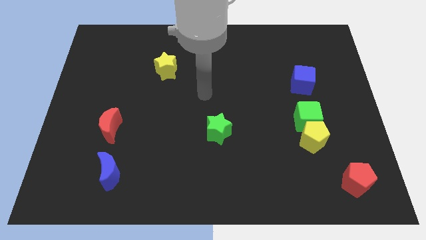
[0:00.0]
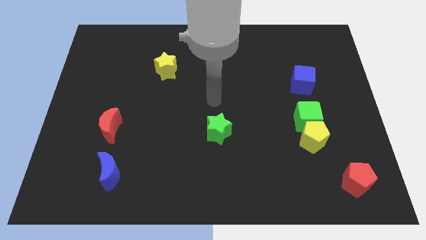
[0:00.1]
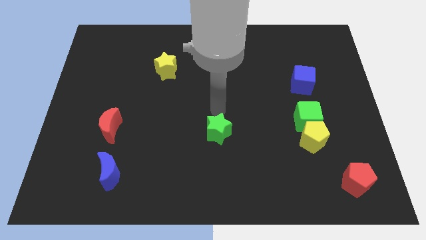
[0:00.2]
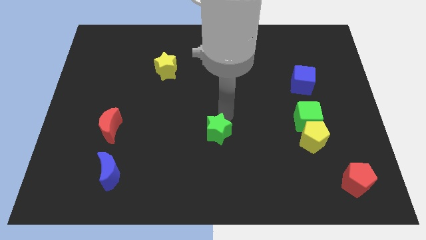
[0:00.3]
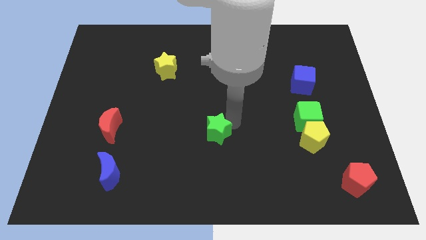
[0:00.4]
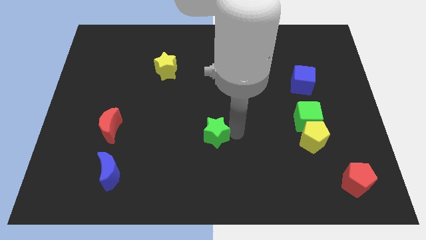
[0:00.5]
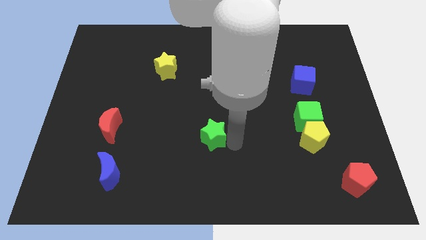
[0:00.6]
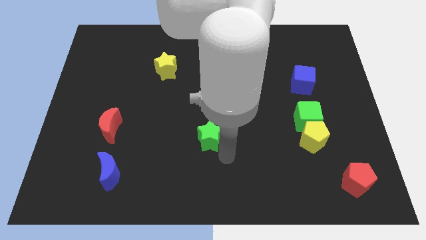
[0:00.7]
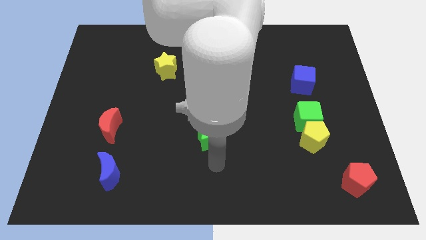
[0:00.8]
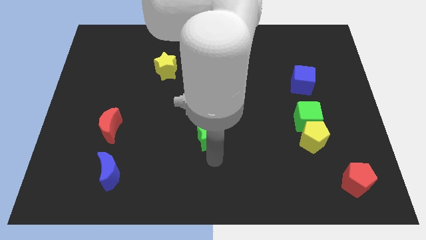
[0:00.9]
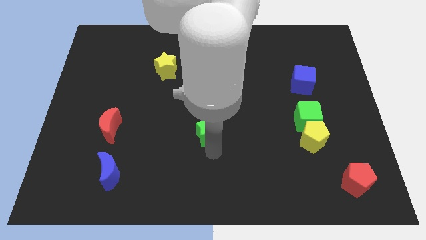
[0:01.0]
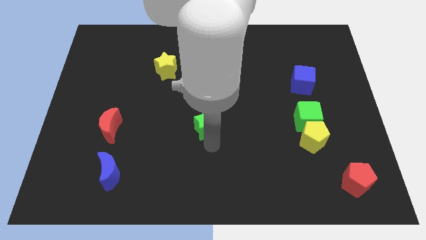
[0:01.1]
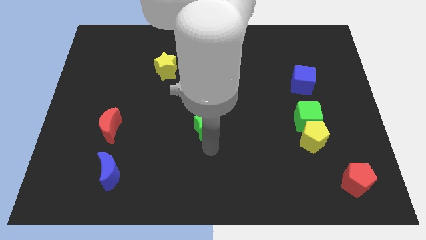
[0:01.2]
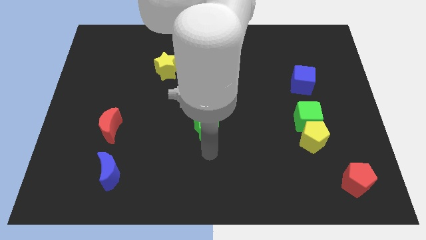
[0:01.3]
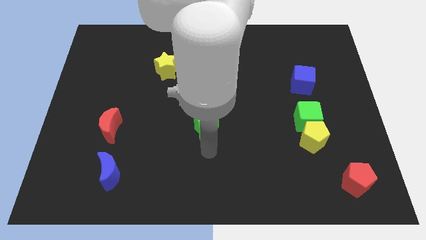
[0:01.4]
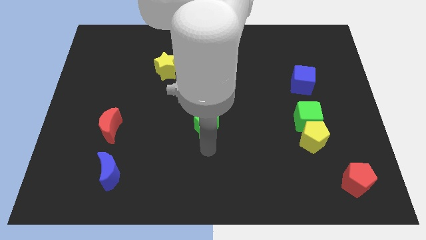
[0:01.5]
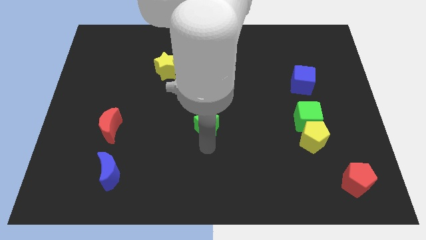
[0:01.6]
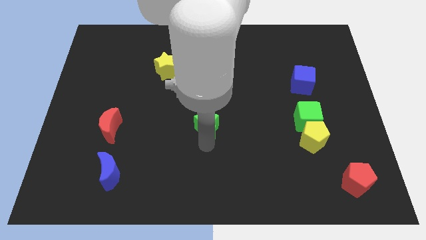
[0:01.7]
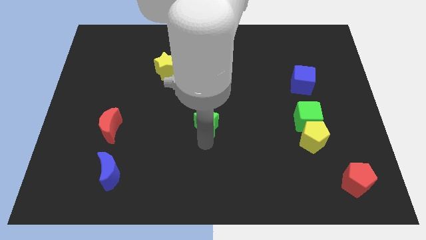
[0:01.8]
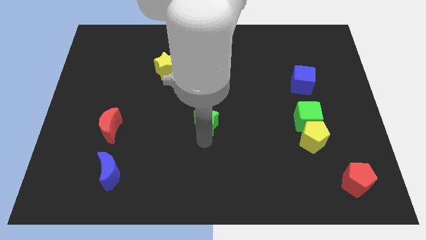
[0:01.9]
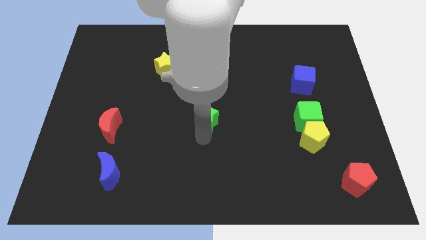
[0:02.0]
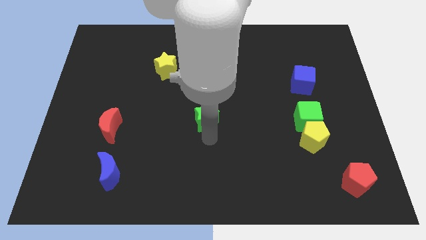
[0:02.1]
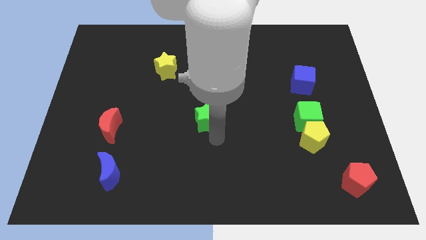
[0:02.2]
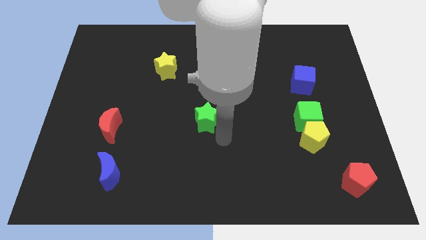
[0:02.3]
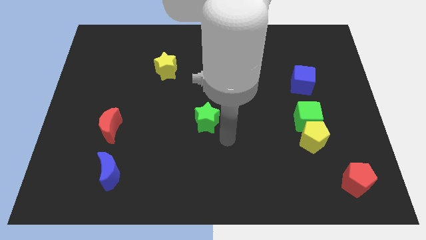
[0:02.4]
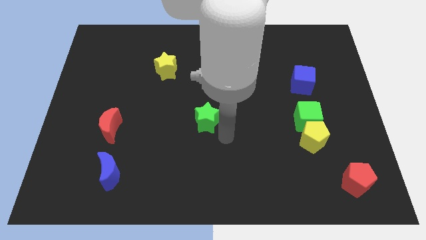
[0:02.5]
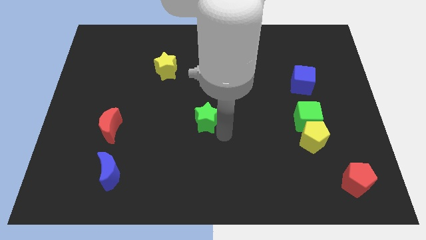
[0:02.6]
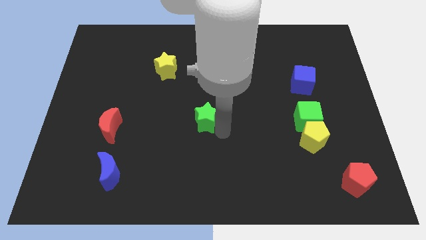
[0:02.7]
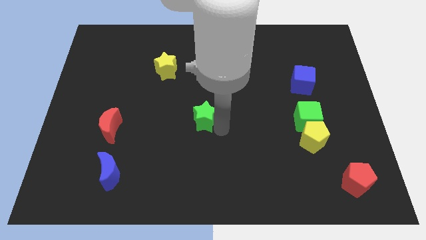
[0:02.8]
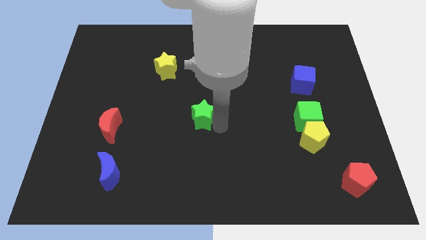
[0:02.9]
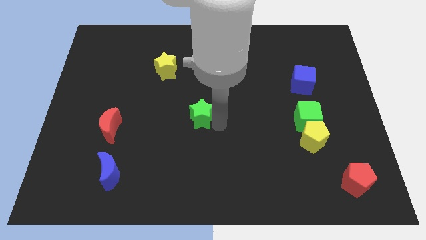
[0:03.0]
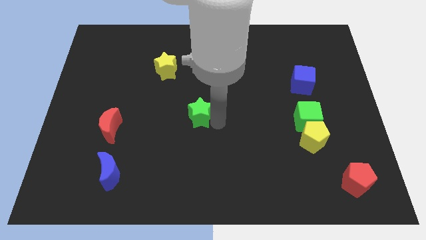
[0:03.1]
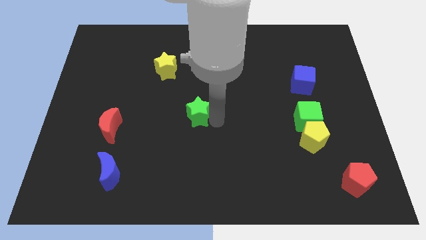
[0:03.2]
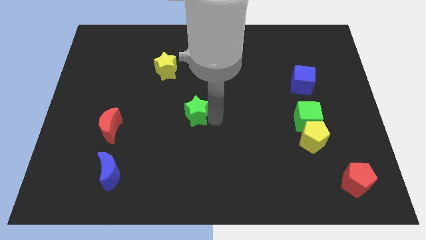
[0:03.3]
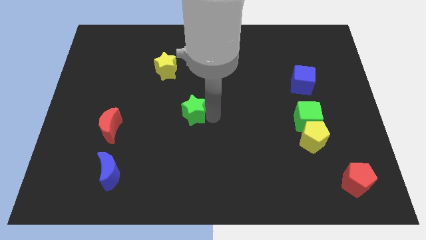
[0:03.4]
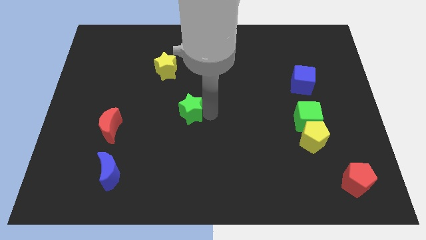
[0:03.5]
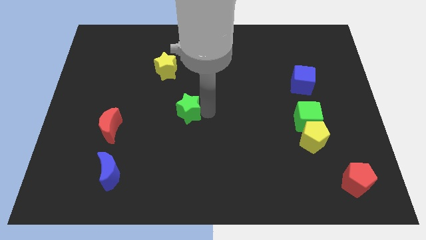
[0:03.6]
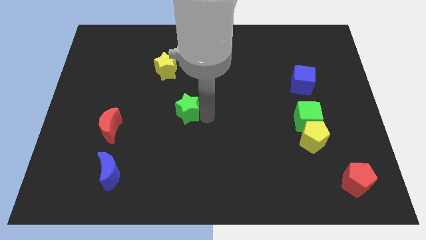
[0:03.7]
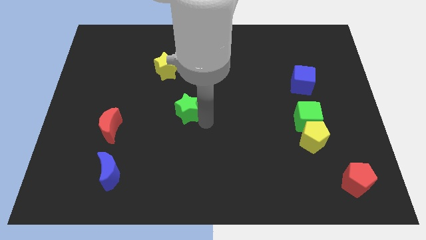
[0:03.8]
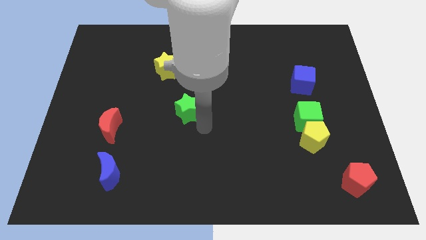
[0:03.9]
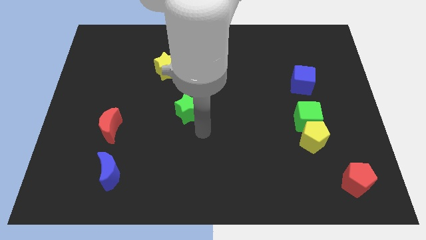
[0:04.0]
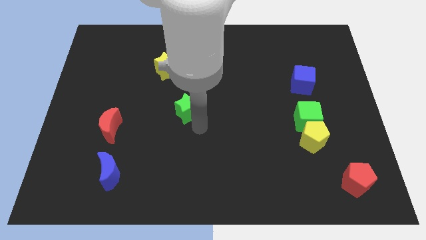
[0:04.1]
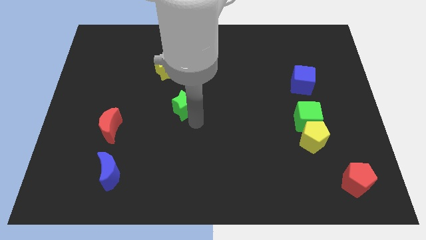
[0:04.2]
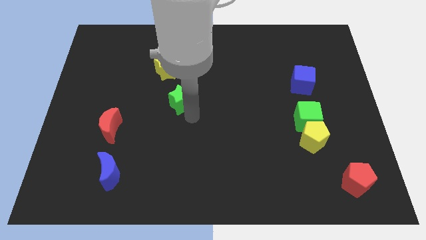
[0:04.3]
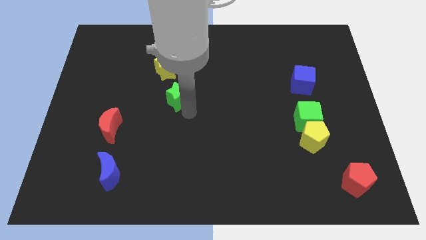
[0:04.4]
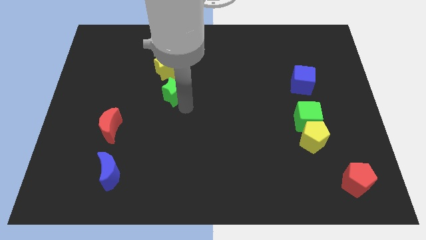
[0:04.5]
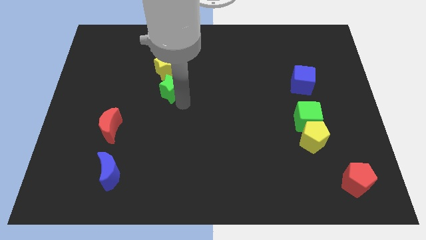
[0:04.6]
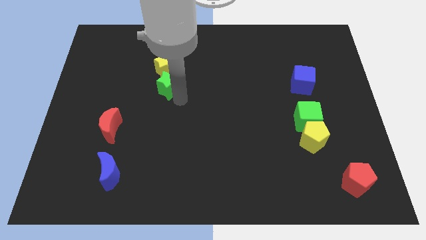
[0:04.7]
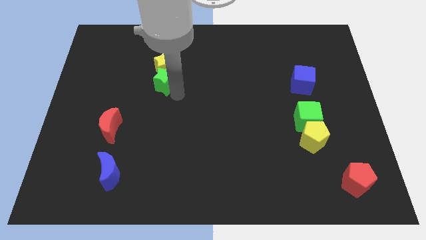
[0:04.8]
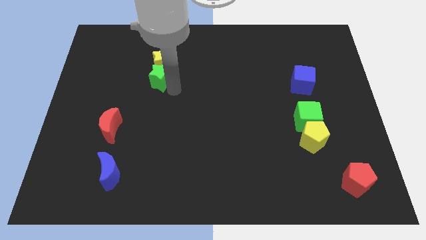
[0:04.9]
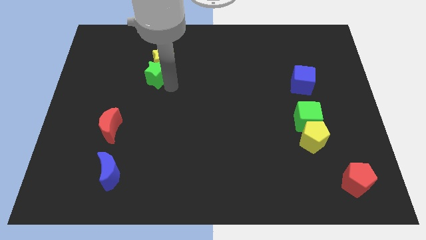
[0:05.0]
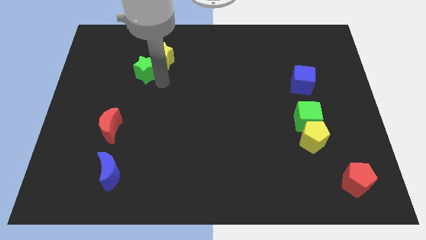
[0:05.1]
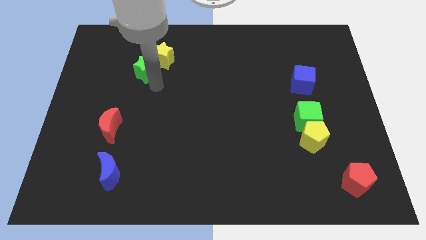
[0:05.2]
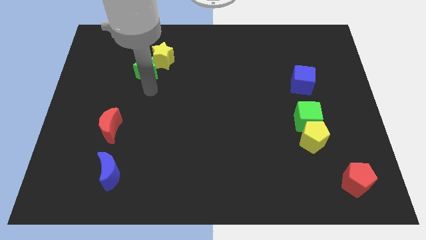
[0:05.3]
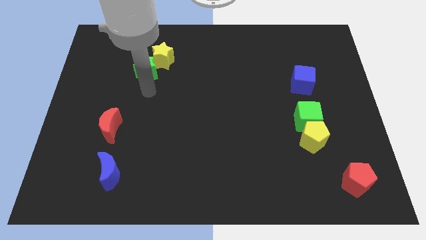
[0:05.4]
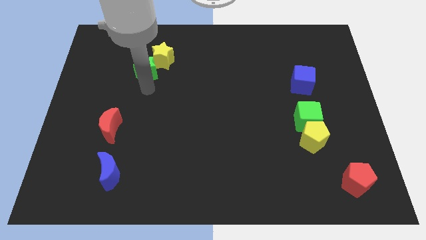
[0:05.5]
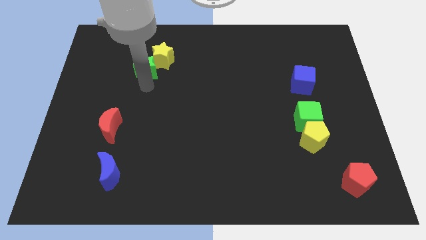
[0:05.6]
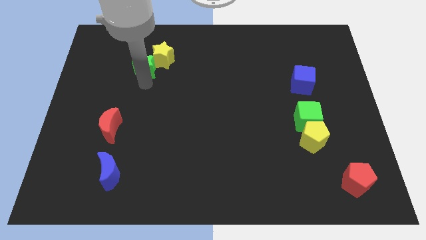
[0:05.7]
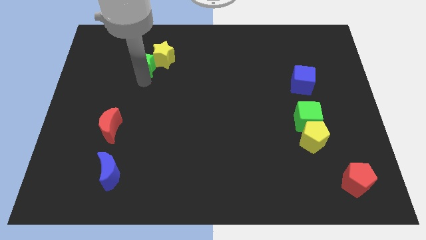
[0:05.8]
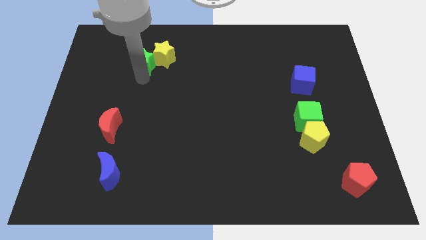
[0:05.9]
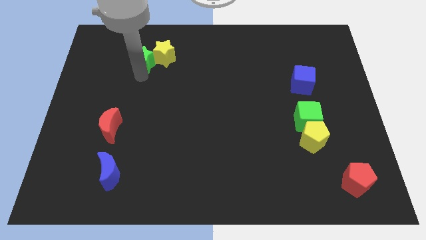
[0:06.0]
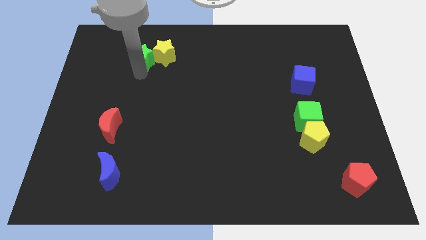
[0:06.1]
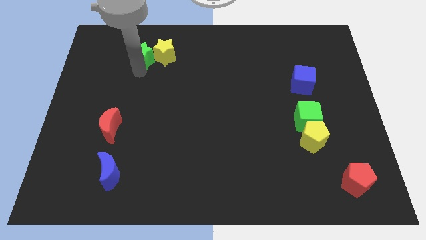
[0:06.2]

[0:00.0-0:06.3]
put the green star to the top left side of the yellow star

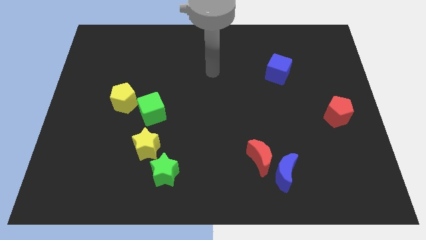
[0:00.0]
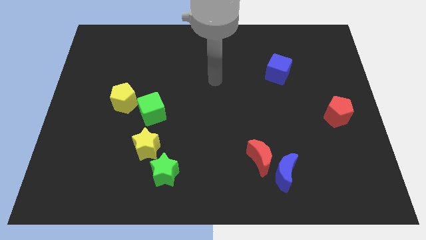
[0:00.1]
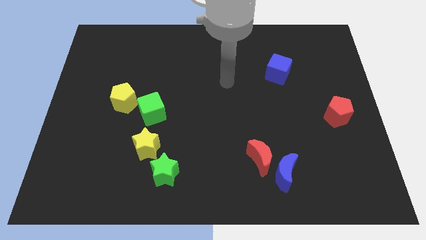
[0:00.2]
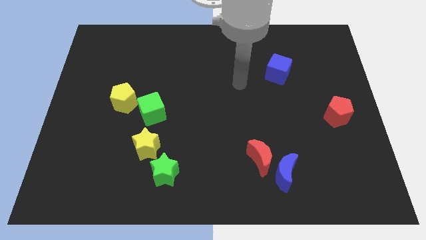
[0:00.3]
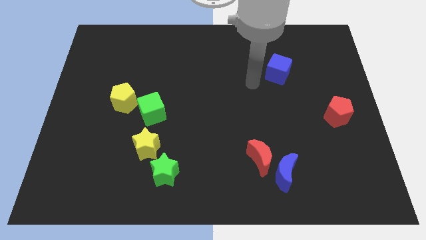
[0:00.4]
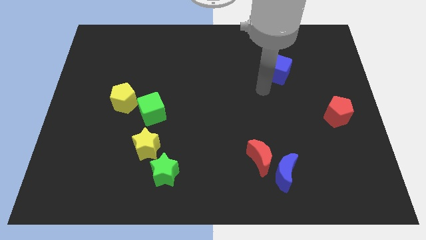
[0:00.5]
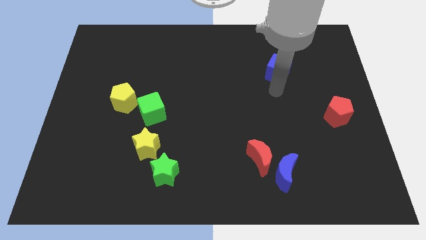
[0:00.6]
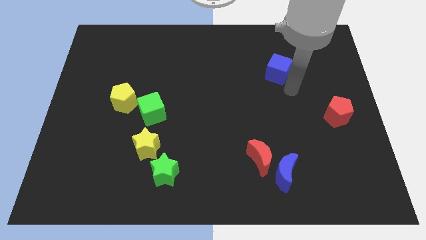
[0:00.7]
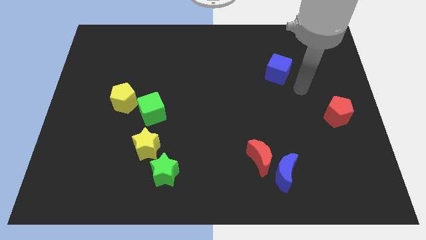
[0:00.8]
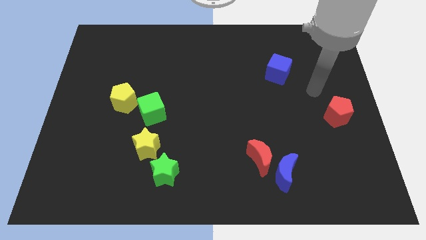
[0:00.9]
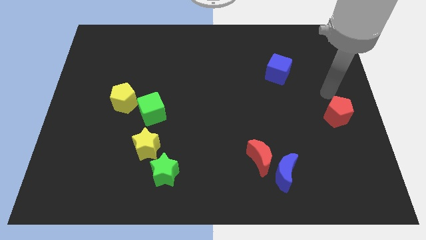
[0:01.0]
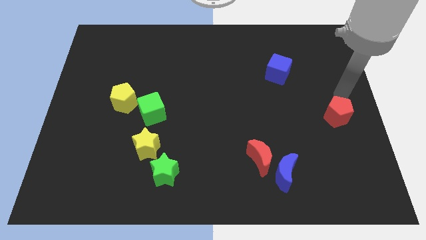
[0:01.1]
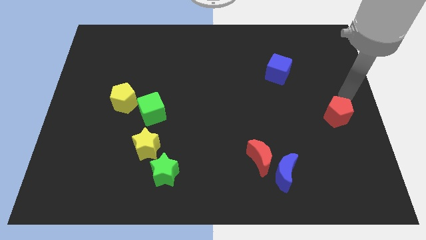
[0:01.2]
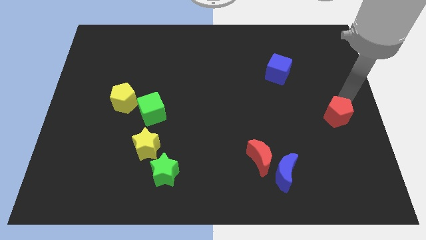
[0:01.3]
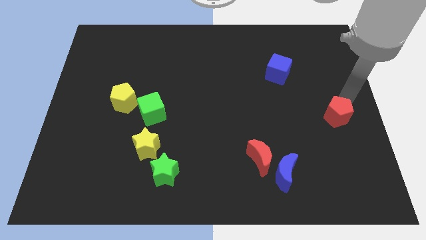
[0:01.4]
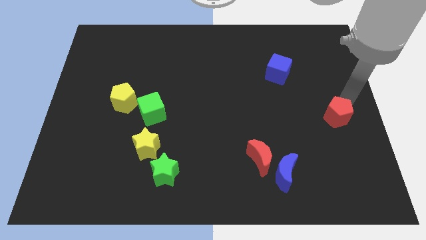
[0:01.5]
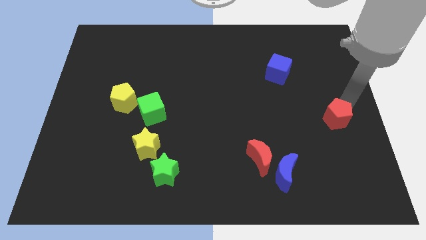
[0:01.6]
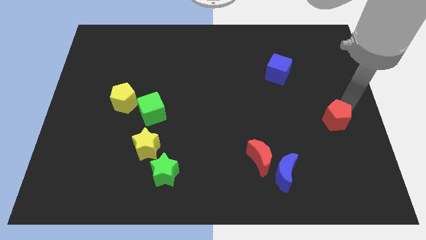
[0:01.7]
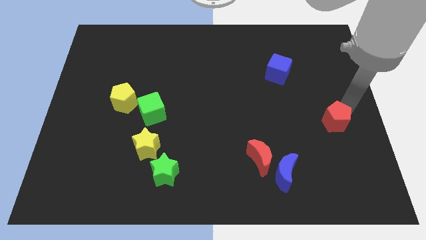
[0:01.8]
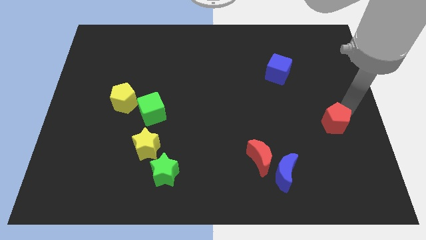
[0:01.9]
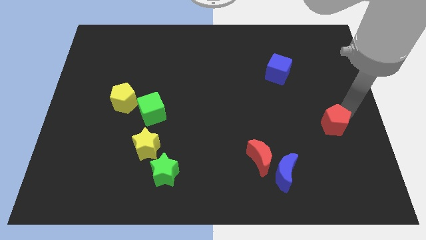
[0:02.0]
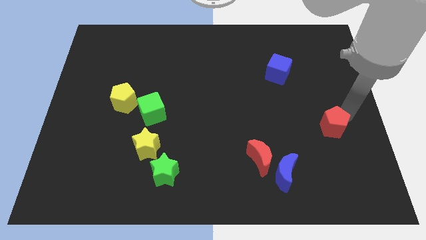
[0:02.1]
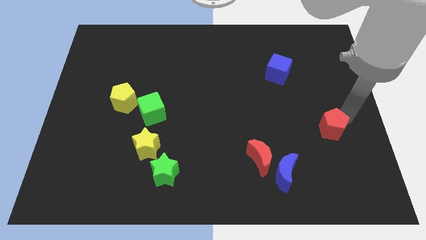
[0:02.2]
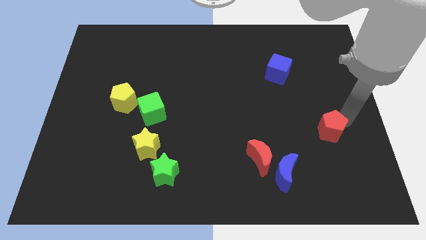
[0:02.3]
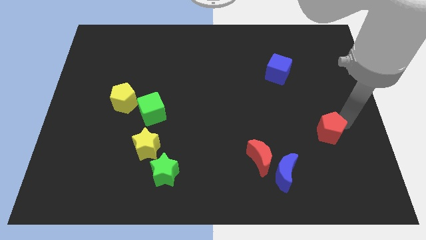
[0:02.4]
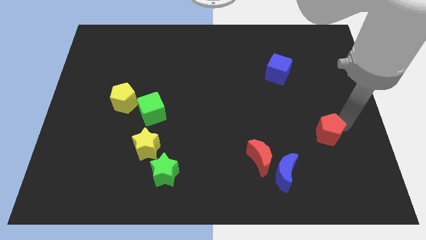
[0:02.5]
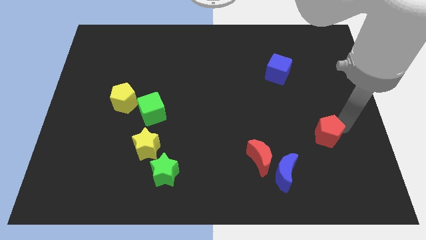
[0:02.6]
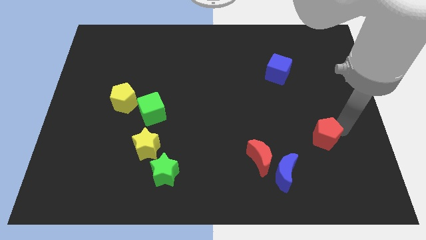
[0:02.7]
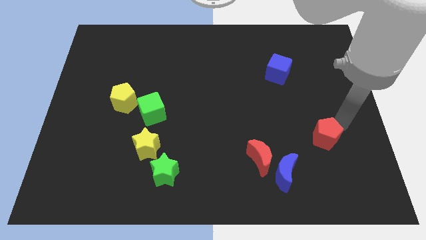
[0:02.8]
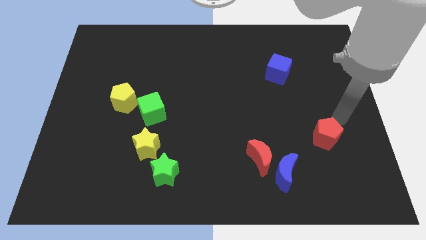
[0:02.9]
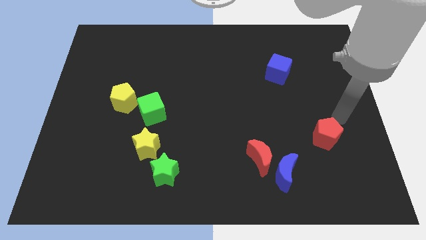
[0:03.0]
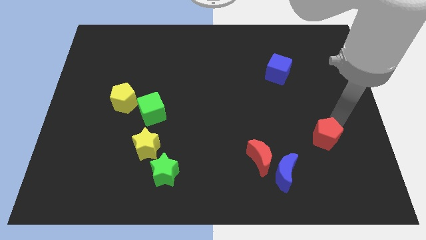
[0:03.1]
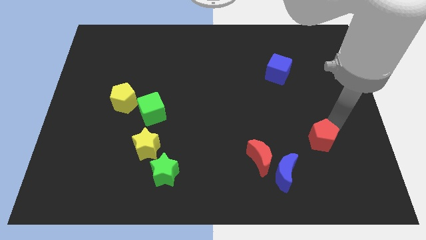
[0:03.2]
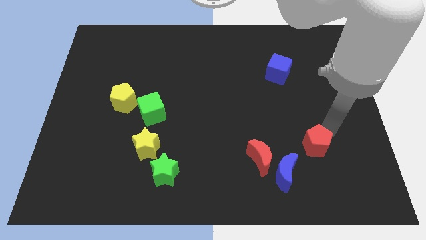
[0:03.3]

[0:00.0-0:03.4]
put the red pentagon just right of the red moon
